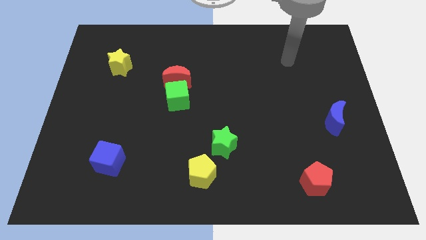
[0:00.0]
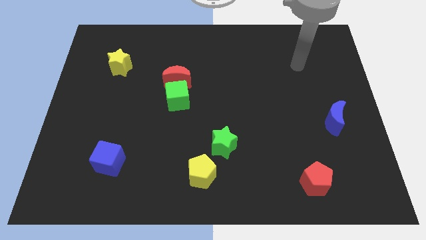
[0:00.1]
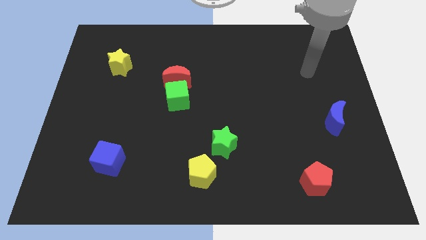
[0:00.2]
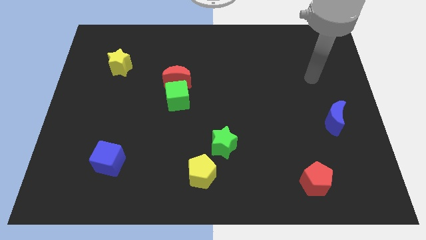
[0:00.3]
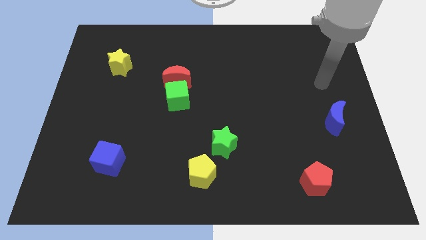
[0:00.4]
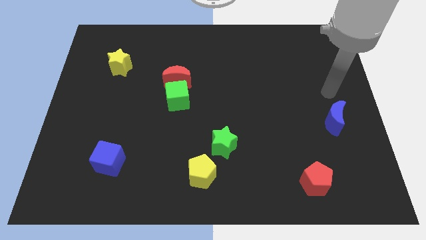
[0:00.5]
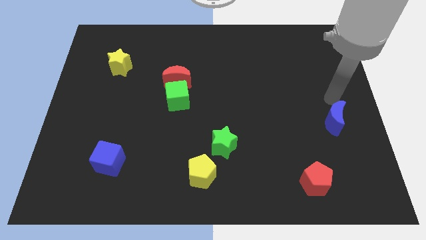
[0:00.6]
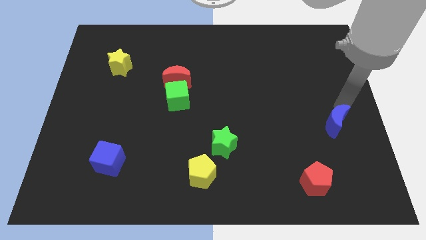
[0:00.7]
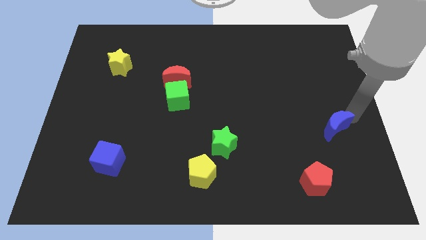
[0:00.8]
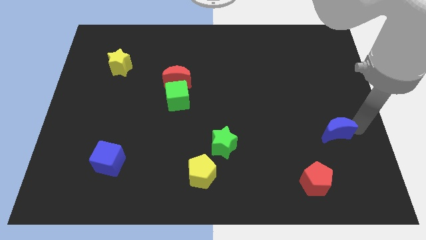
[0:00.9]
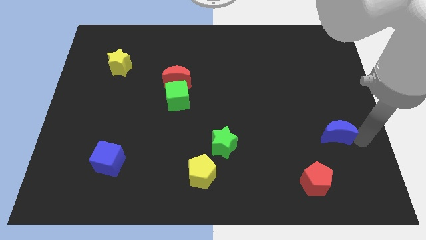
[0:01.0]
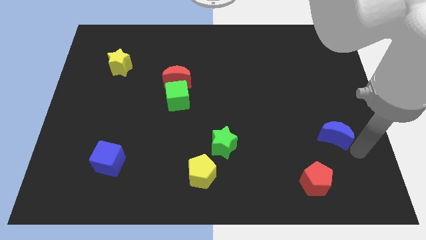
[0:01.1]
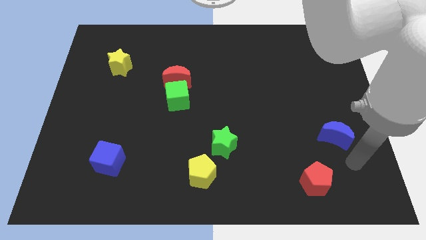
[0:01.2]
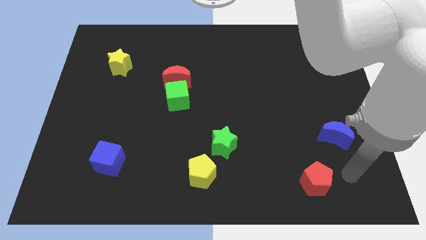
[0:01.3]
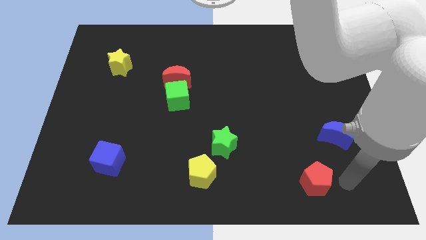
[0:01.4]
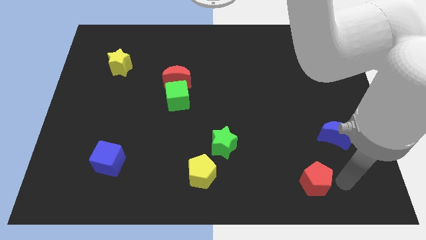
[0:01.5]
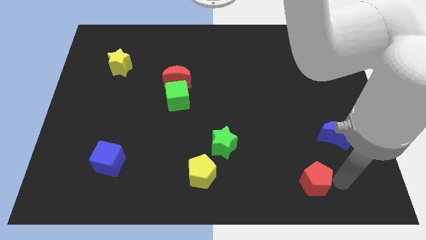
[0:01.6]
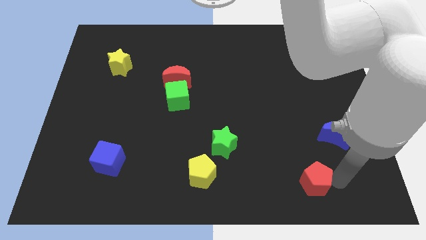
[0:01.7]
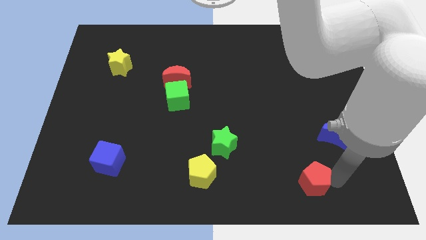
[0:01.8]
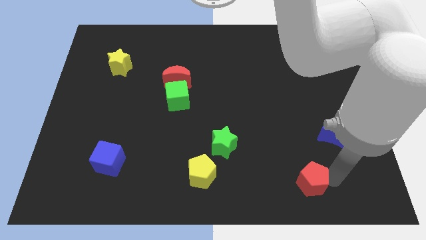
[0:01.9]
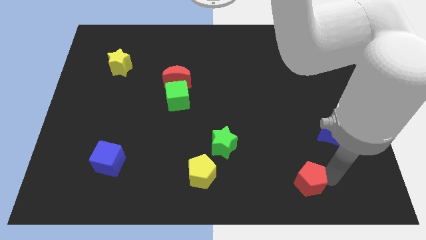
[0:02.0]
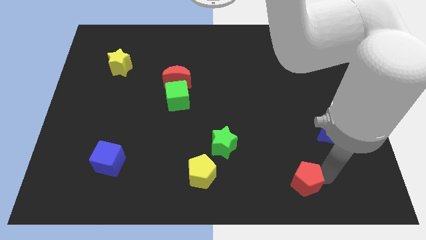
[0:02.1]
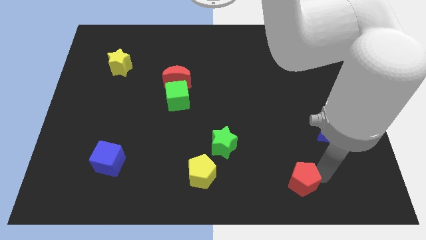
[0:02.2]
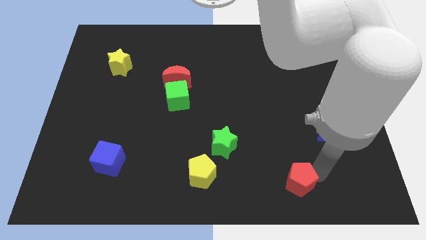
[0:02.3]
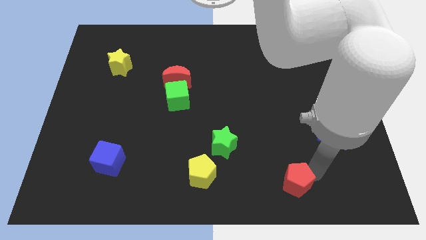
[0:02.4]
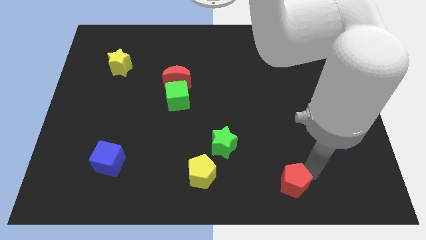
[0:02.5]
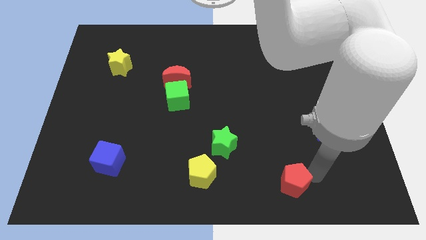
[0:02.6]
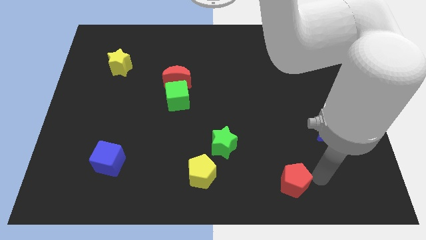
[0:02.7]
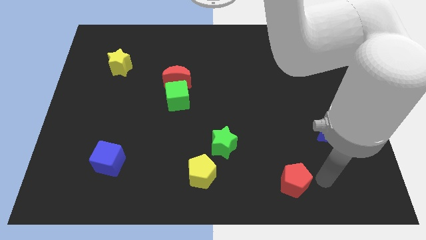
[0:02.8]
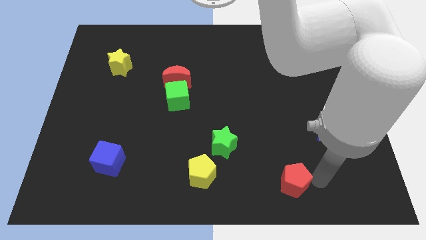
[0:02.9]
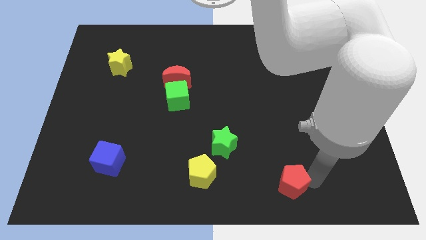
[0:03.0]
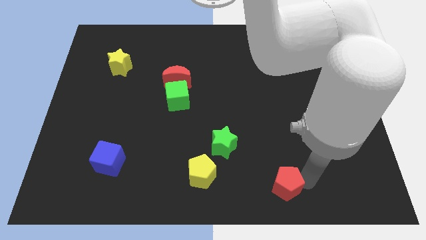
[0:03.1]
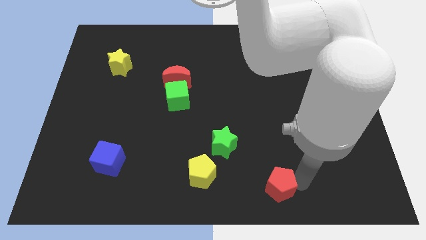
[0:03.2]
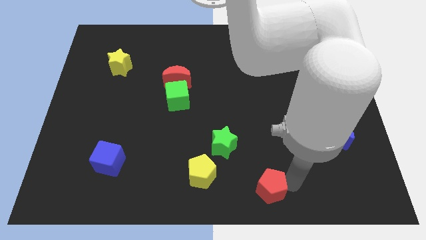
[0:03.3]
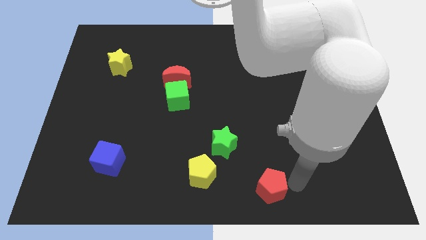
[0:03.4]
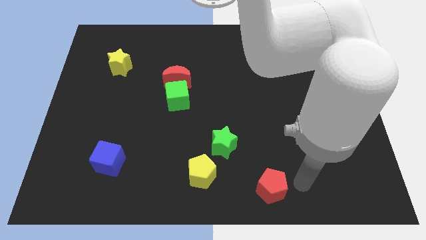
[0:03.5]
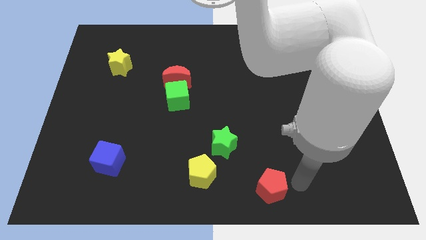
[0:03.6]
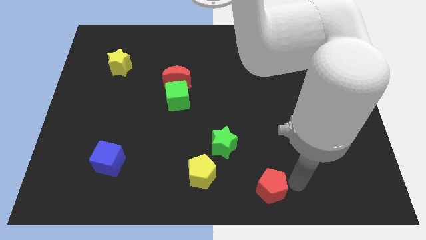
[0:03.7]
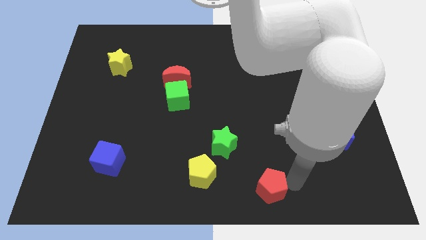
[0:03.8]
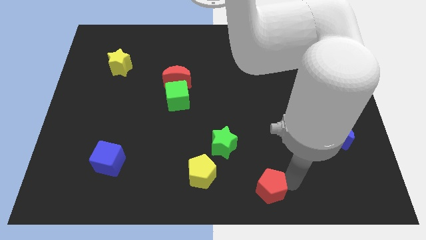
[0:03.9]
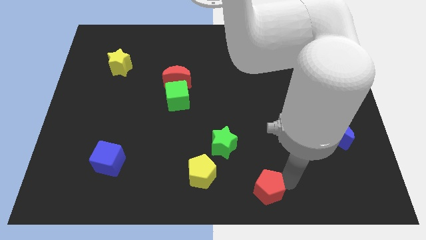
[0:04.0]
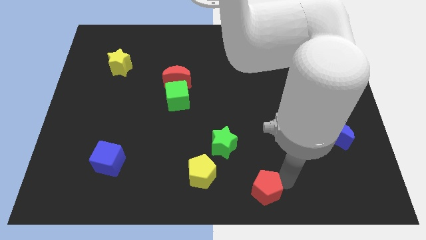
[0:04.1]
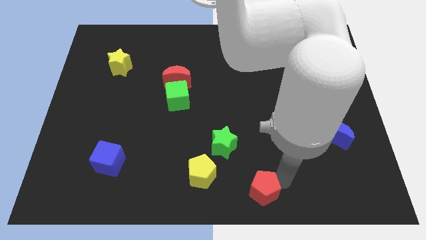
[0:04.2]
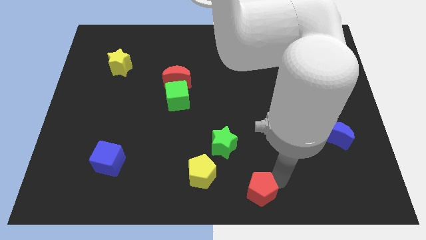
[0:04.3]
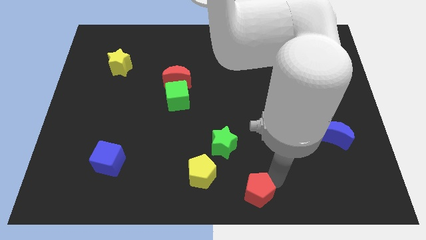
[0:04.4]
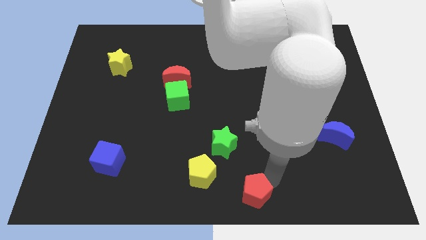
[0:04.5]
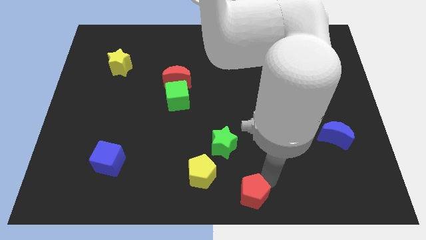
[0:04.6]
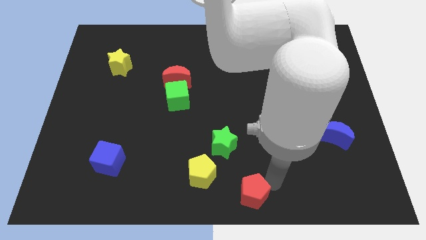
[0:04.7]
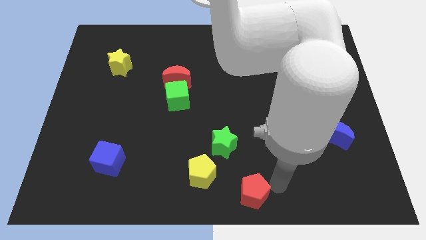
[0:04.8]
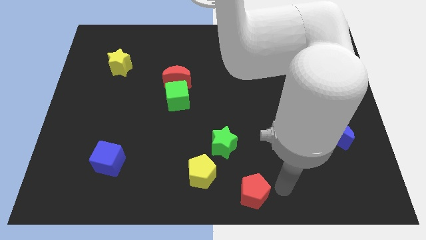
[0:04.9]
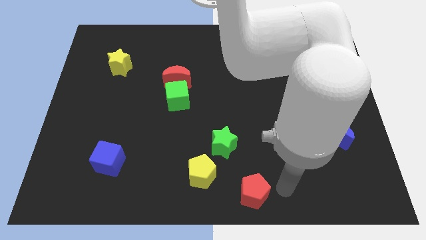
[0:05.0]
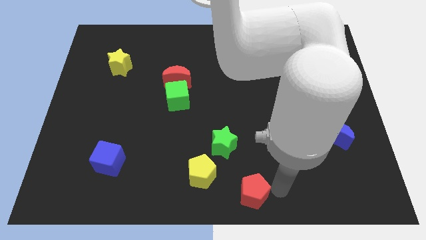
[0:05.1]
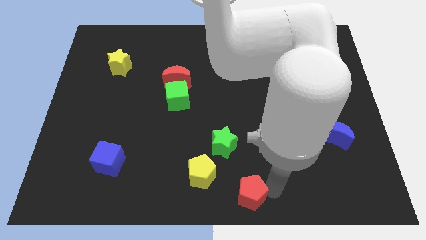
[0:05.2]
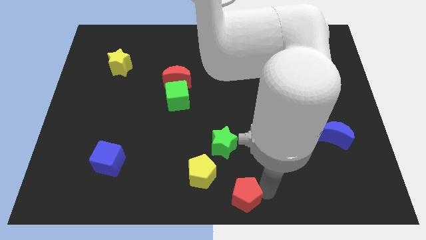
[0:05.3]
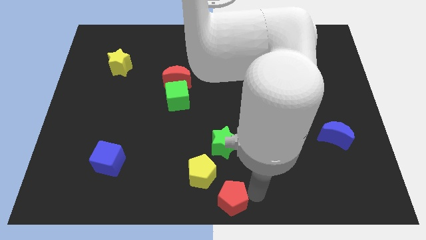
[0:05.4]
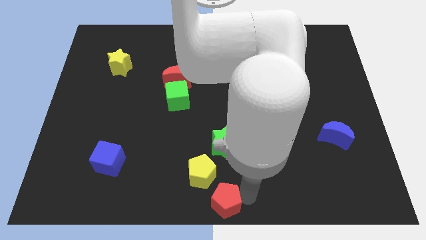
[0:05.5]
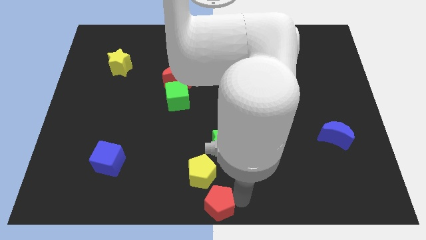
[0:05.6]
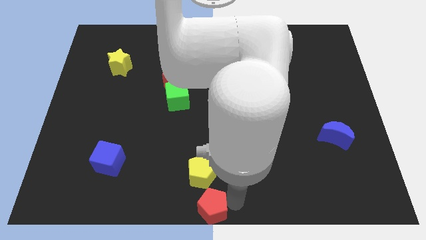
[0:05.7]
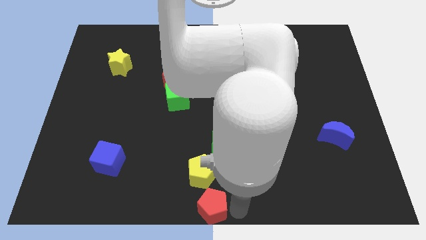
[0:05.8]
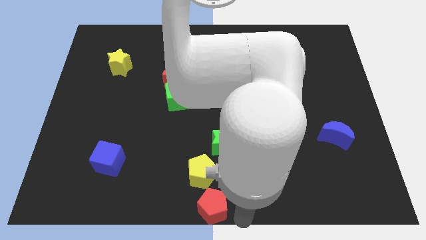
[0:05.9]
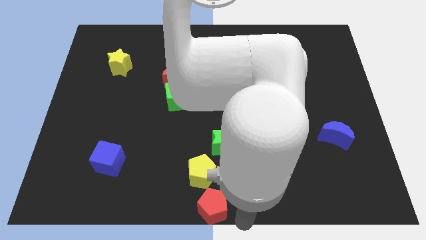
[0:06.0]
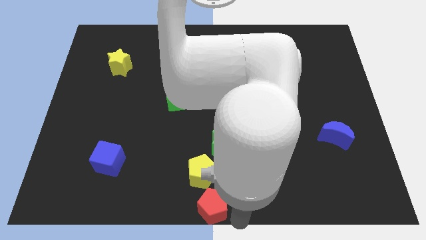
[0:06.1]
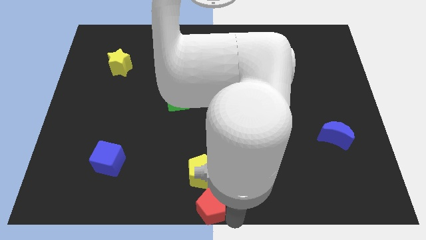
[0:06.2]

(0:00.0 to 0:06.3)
push the red pentagon to the left

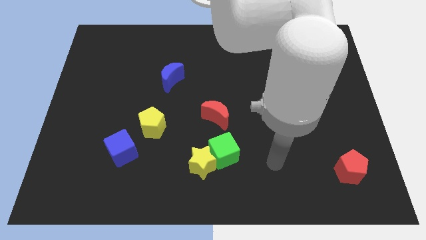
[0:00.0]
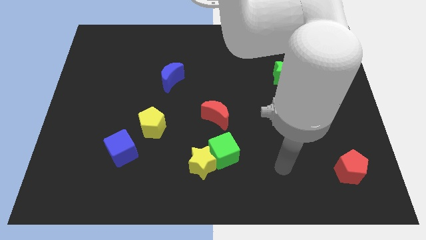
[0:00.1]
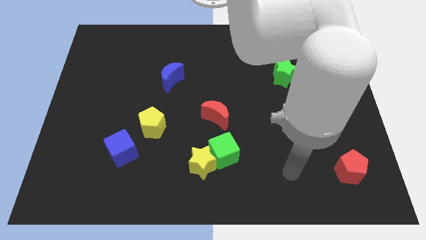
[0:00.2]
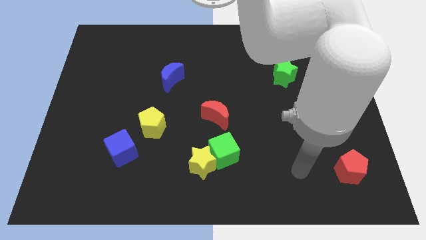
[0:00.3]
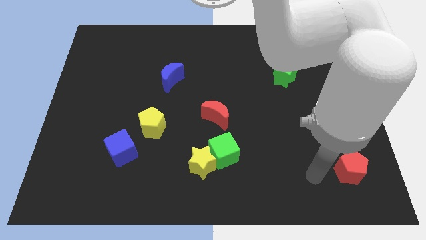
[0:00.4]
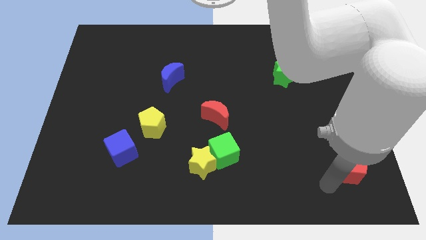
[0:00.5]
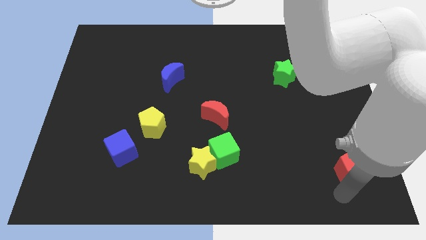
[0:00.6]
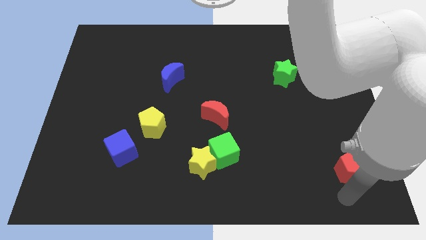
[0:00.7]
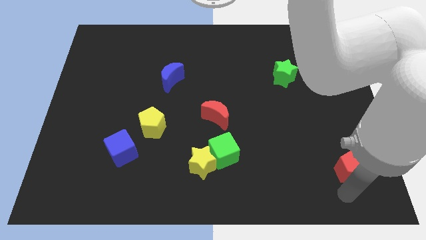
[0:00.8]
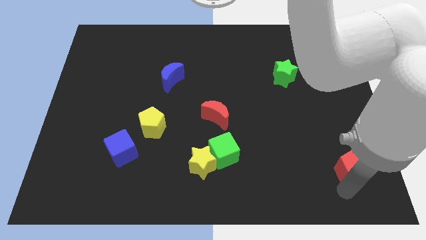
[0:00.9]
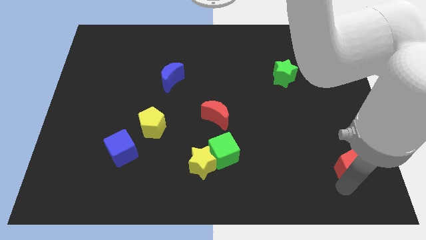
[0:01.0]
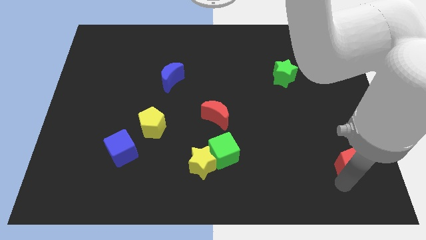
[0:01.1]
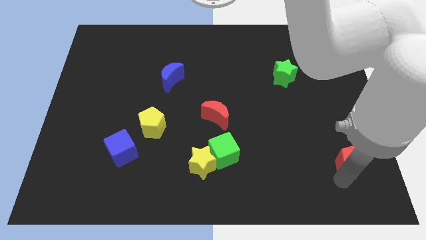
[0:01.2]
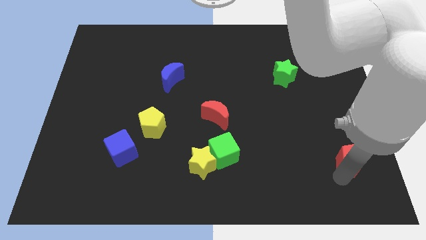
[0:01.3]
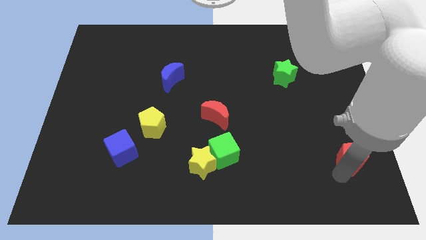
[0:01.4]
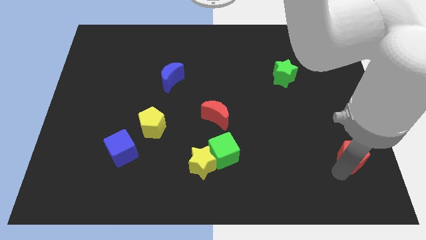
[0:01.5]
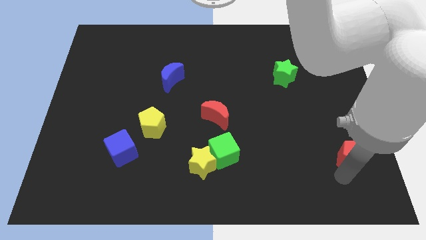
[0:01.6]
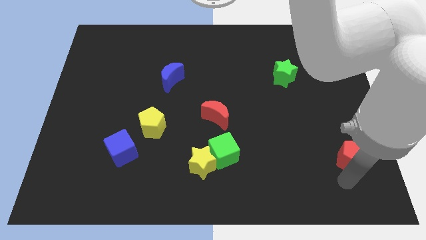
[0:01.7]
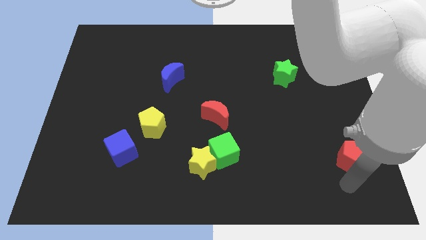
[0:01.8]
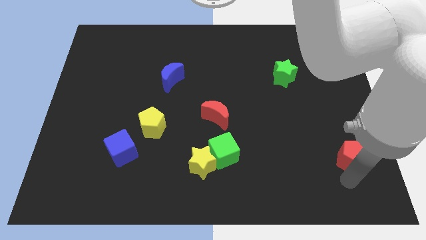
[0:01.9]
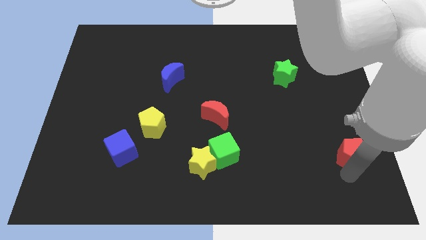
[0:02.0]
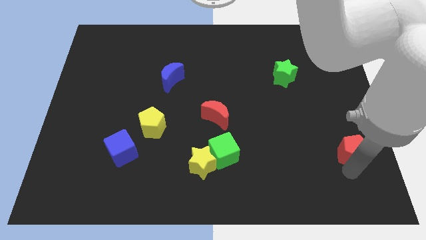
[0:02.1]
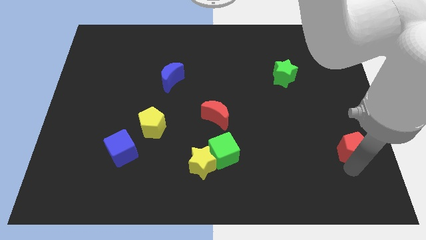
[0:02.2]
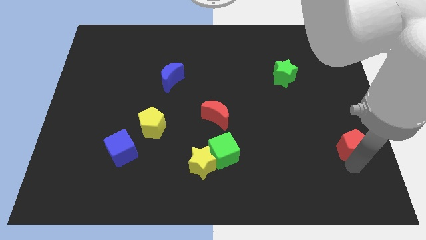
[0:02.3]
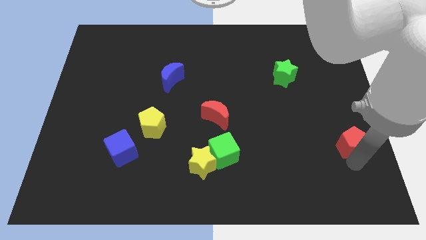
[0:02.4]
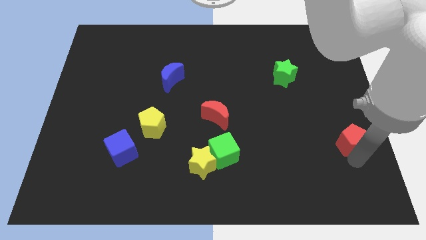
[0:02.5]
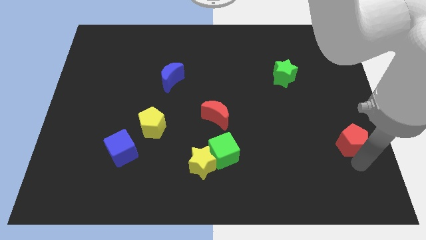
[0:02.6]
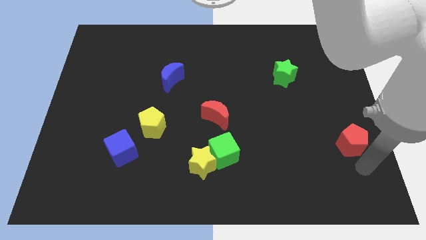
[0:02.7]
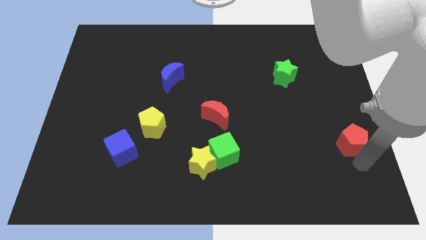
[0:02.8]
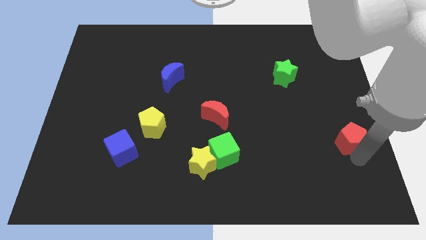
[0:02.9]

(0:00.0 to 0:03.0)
push the red pentagon up a bit
